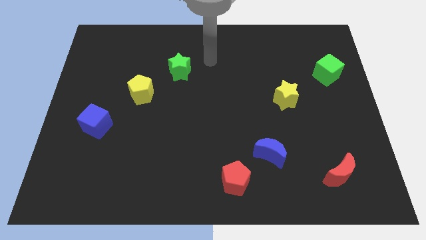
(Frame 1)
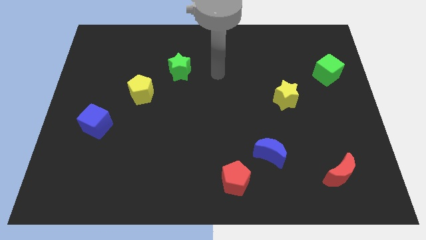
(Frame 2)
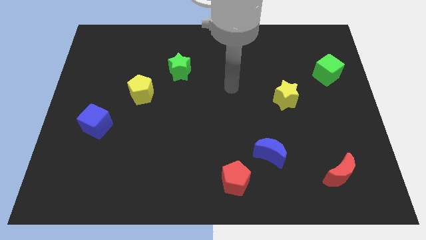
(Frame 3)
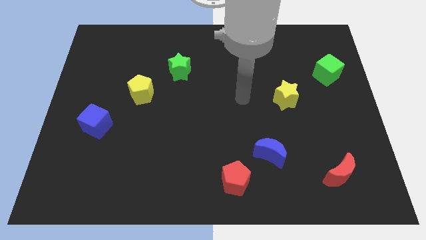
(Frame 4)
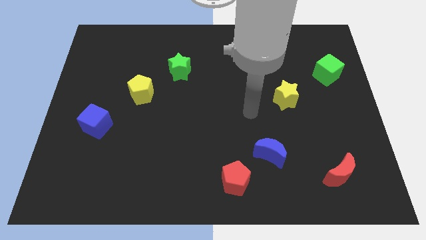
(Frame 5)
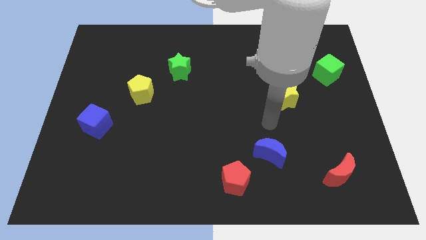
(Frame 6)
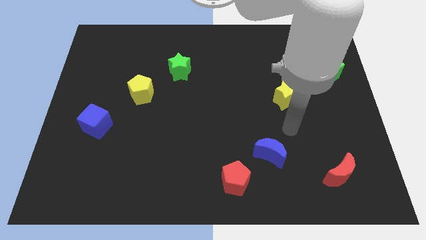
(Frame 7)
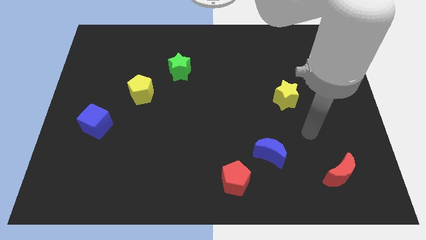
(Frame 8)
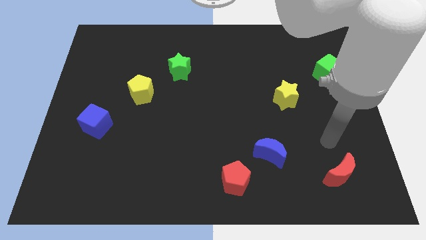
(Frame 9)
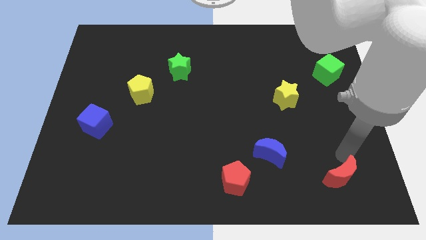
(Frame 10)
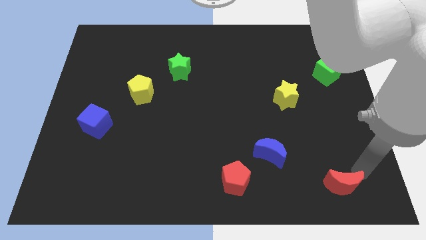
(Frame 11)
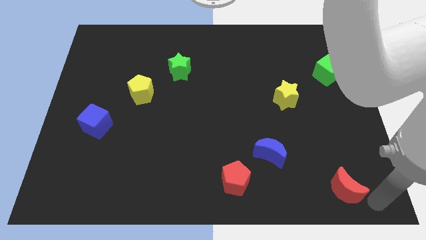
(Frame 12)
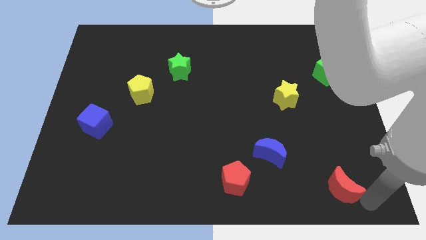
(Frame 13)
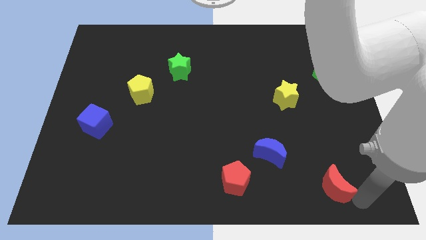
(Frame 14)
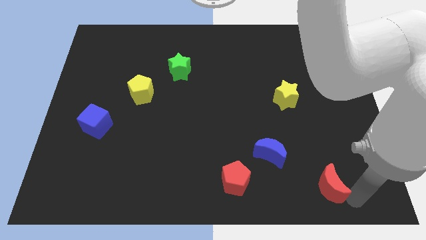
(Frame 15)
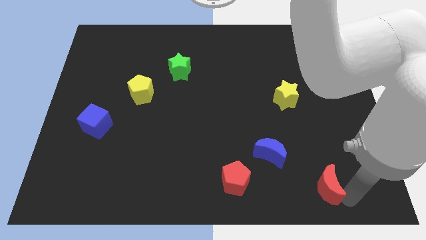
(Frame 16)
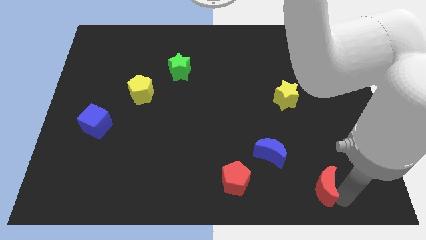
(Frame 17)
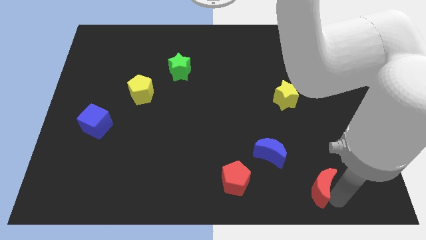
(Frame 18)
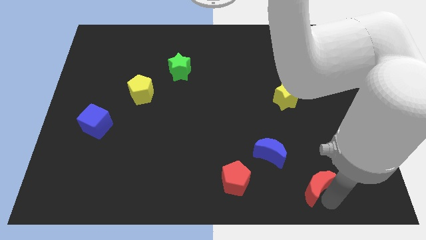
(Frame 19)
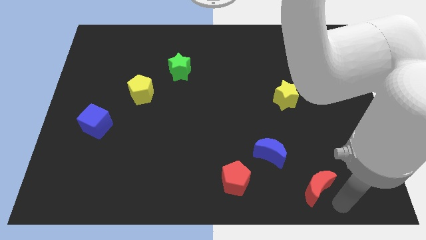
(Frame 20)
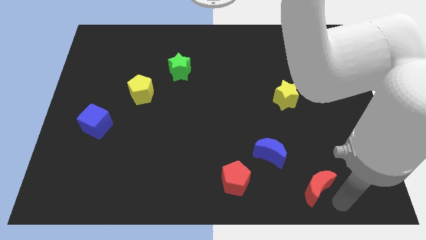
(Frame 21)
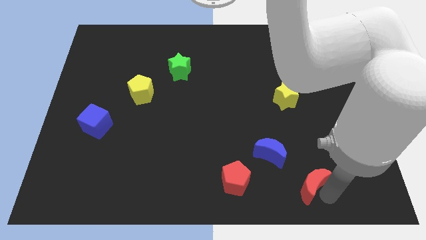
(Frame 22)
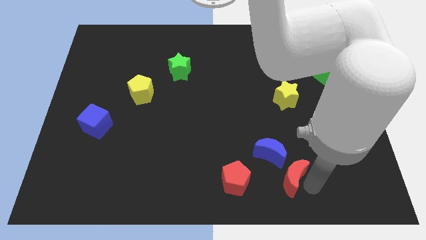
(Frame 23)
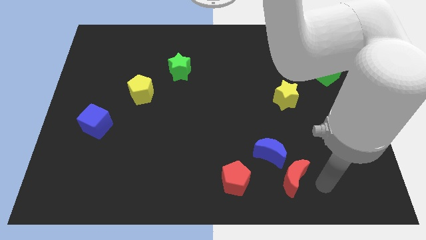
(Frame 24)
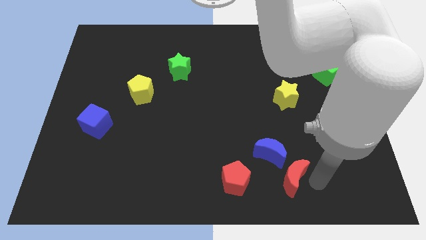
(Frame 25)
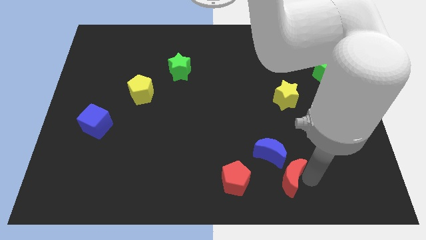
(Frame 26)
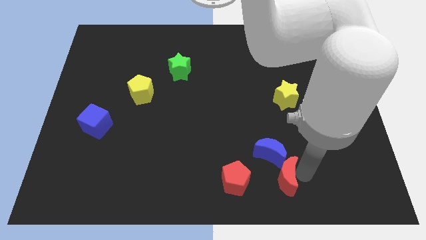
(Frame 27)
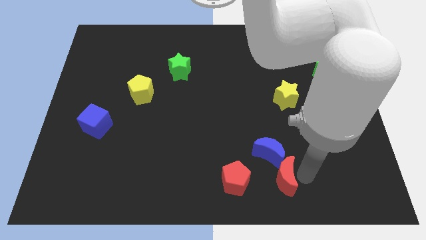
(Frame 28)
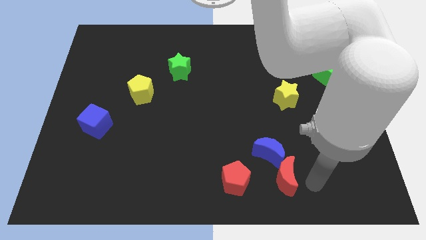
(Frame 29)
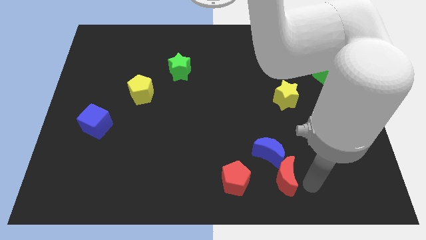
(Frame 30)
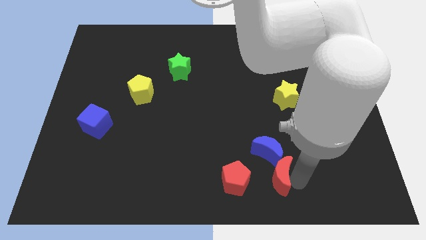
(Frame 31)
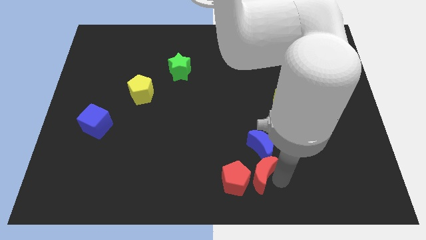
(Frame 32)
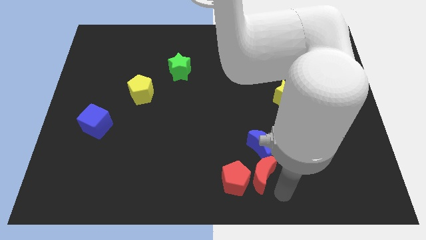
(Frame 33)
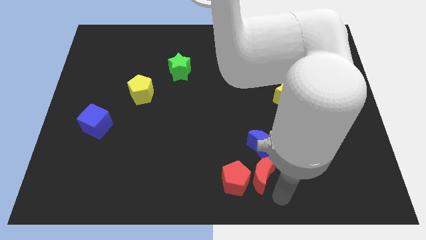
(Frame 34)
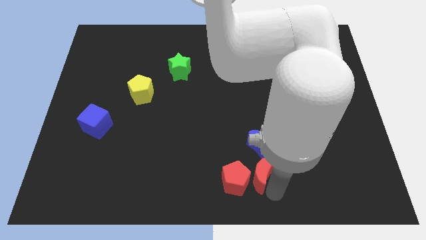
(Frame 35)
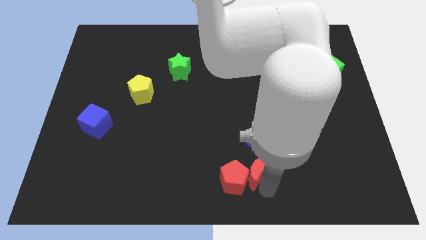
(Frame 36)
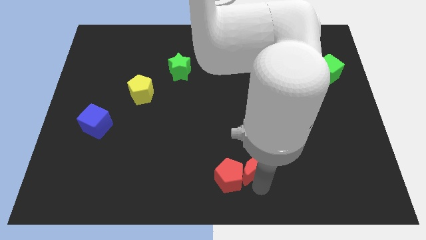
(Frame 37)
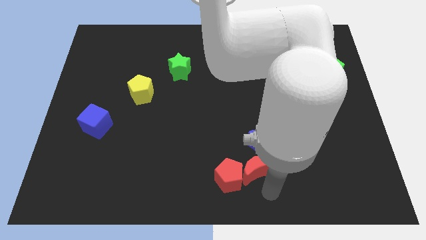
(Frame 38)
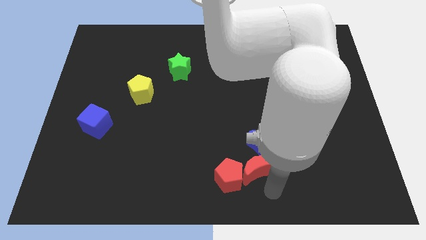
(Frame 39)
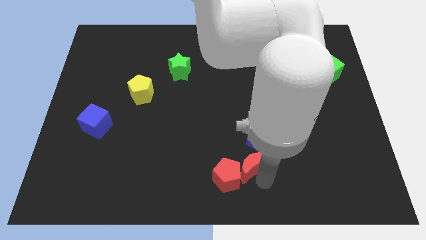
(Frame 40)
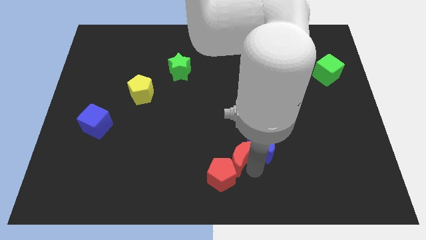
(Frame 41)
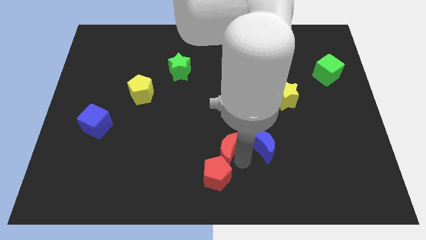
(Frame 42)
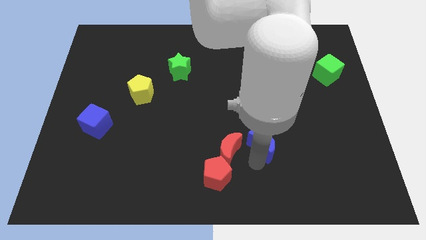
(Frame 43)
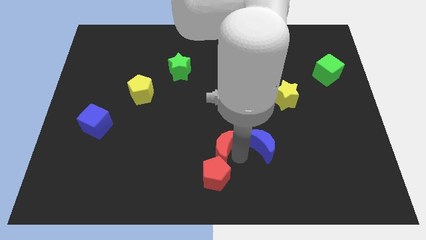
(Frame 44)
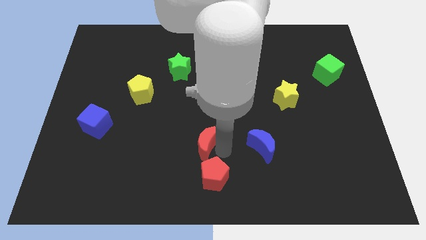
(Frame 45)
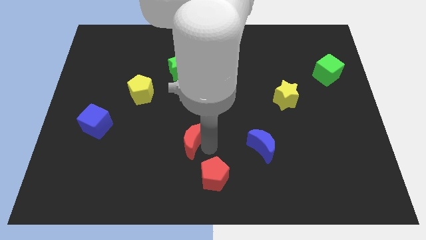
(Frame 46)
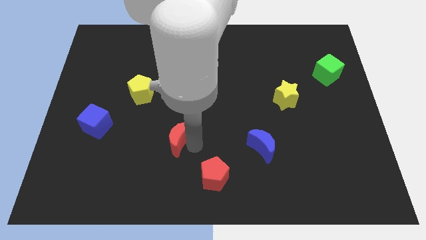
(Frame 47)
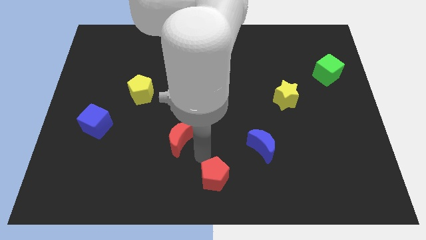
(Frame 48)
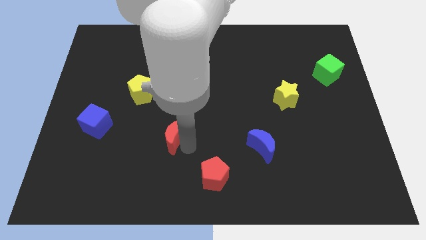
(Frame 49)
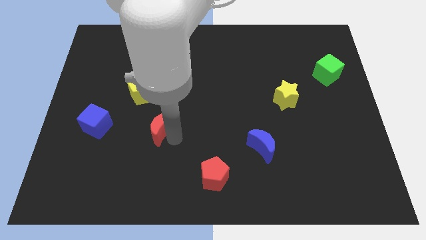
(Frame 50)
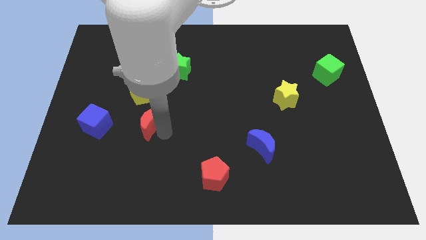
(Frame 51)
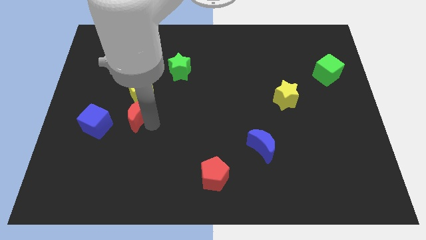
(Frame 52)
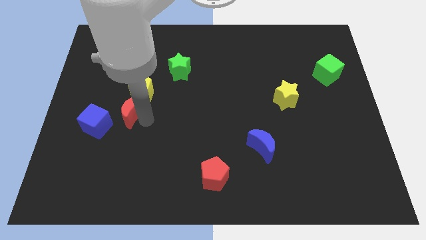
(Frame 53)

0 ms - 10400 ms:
slide the red moon to the bottom left of the yellow pentagon

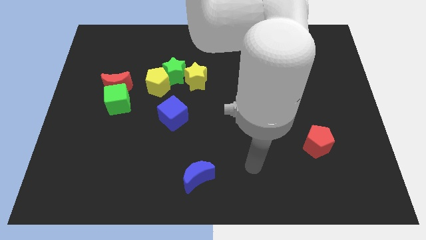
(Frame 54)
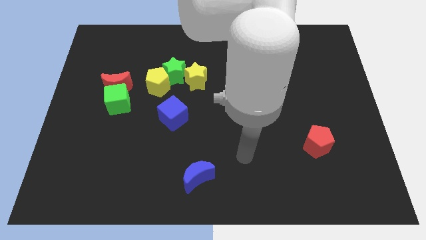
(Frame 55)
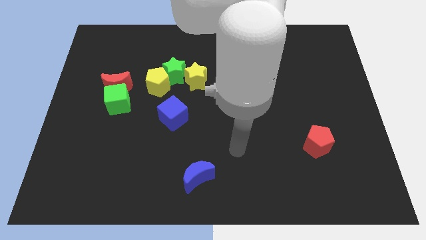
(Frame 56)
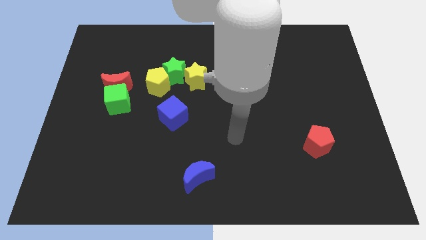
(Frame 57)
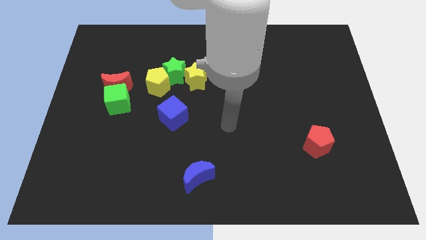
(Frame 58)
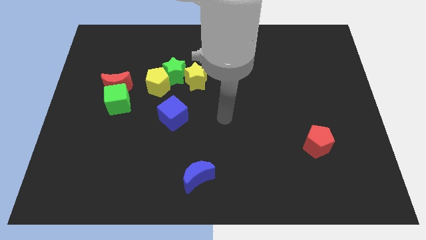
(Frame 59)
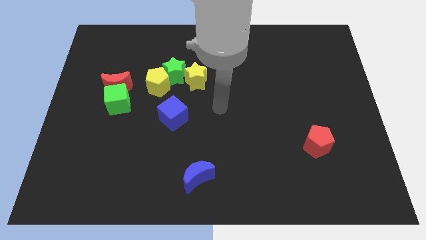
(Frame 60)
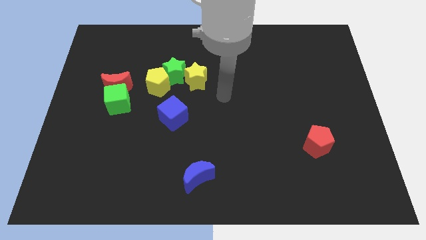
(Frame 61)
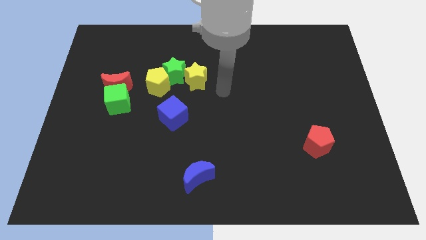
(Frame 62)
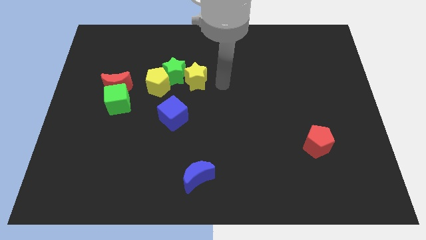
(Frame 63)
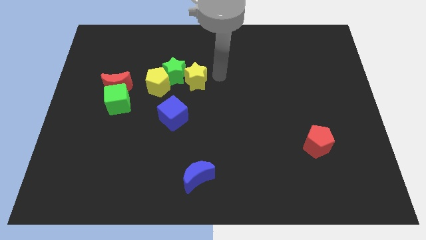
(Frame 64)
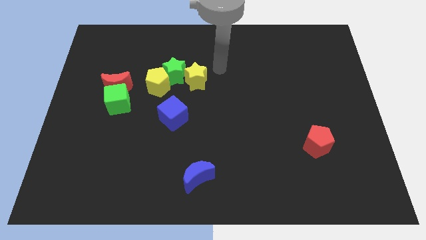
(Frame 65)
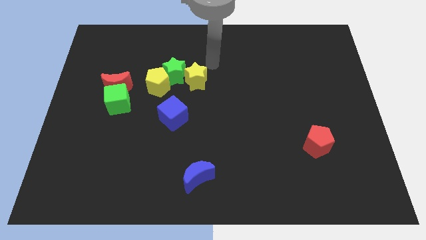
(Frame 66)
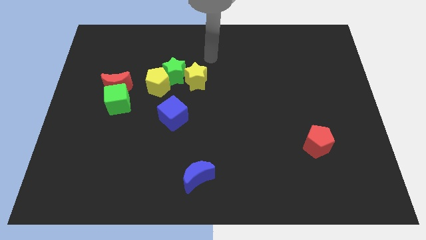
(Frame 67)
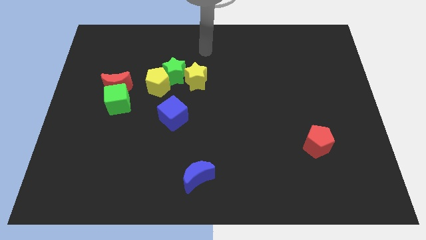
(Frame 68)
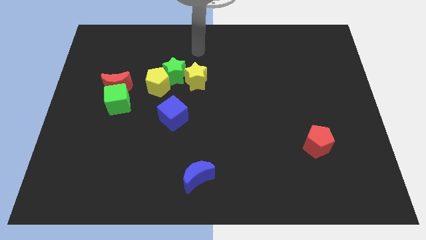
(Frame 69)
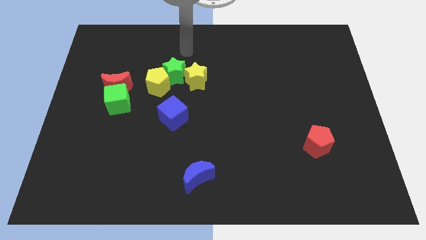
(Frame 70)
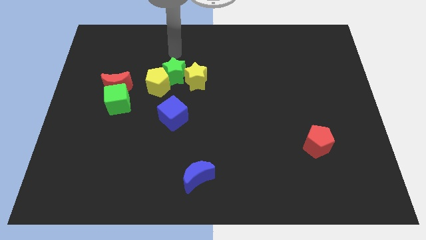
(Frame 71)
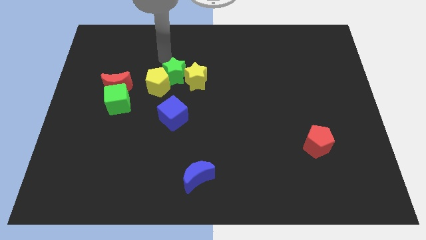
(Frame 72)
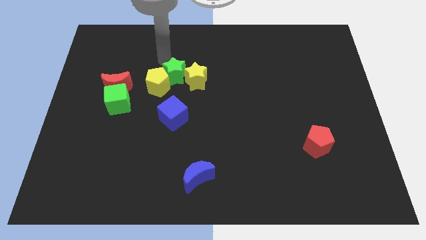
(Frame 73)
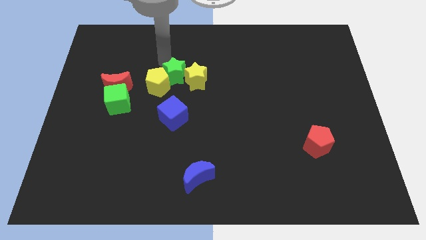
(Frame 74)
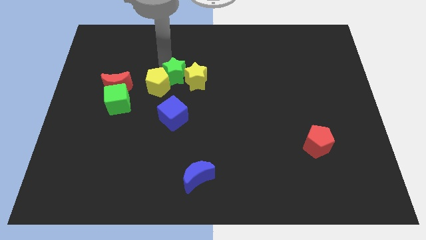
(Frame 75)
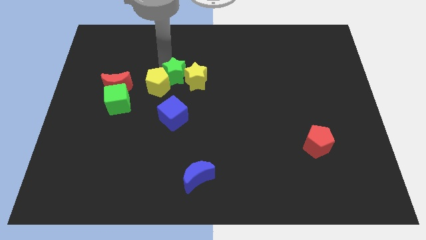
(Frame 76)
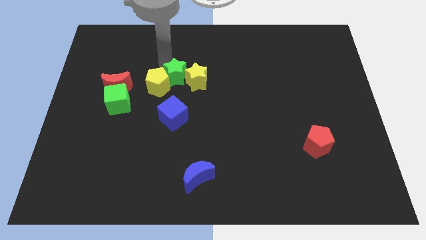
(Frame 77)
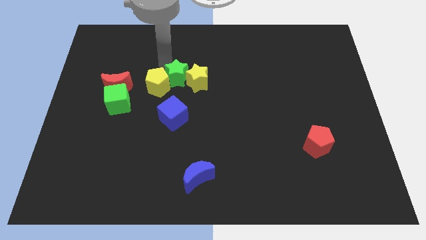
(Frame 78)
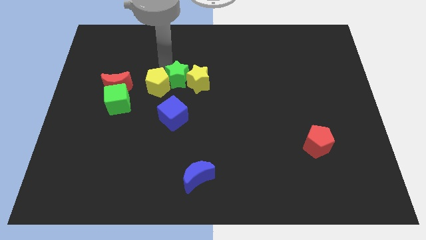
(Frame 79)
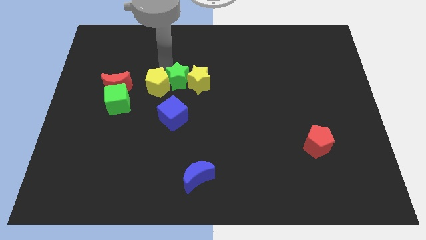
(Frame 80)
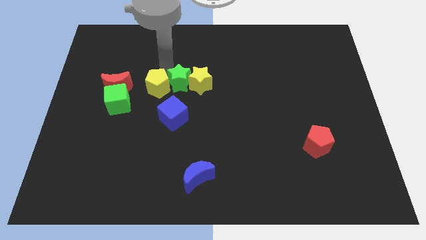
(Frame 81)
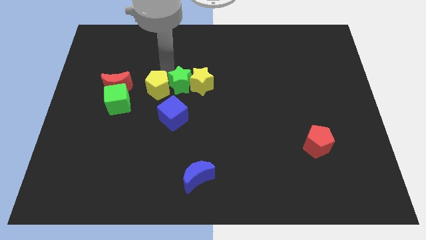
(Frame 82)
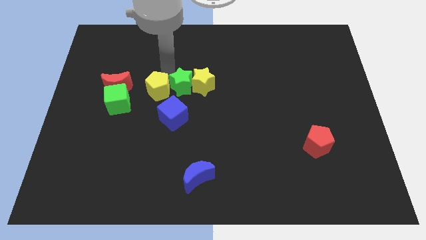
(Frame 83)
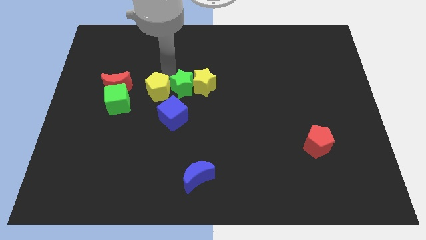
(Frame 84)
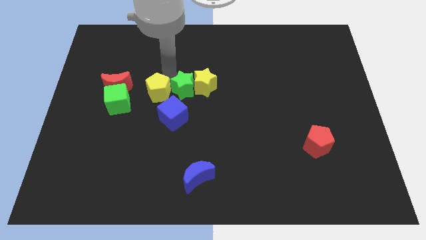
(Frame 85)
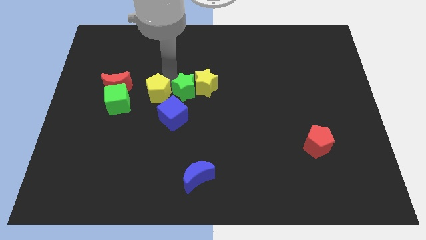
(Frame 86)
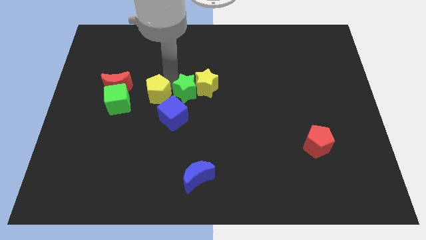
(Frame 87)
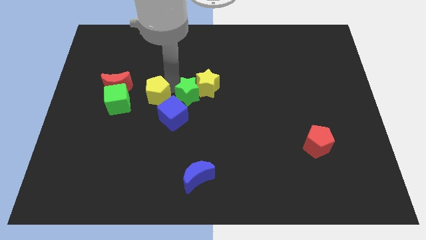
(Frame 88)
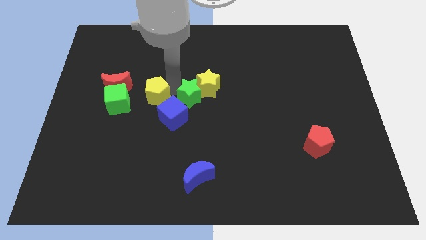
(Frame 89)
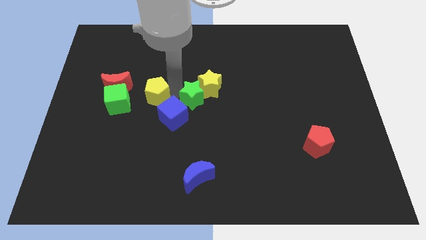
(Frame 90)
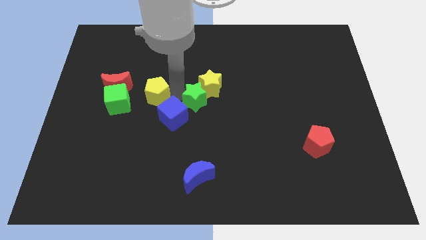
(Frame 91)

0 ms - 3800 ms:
push the green star to the right side of the blue cube
